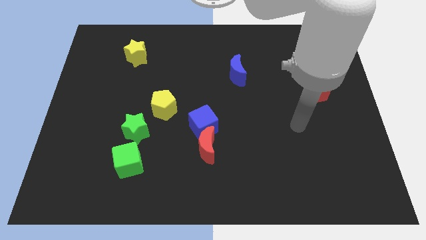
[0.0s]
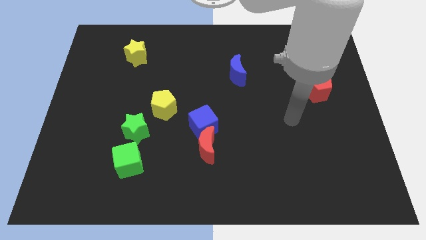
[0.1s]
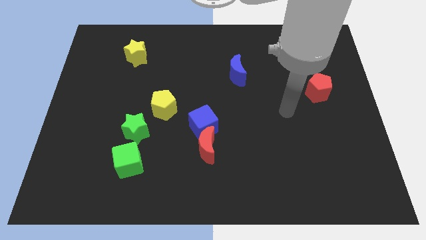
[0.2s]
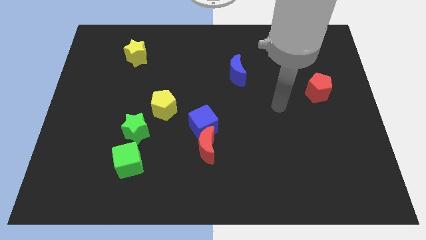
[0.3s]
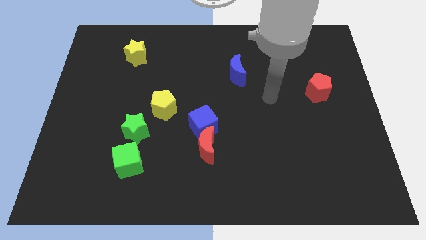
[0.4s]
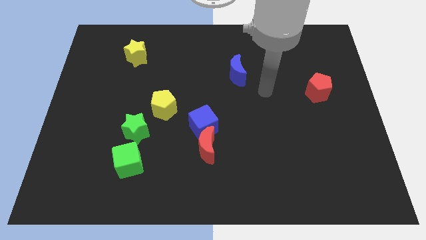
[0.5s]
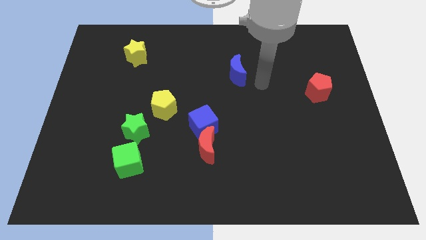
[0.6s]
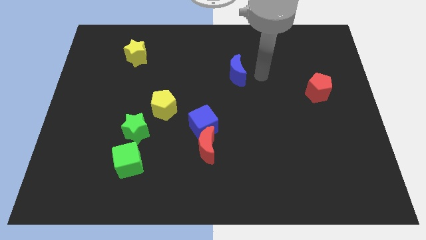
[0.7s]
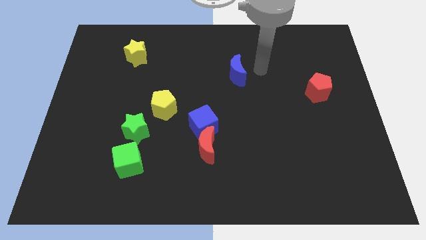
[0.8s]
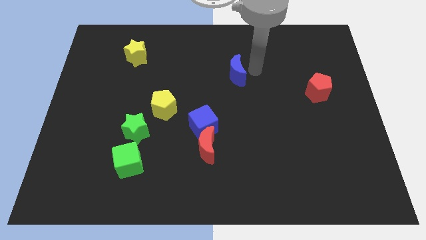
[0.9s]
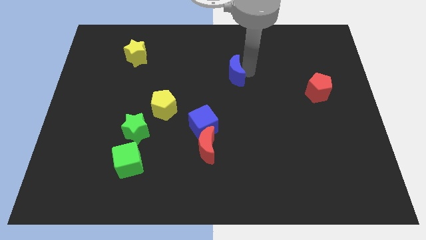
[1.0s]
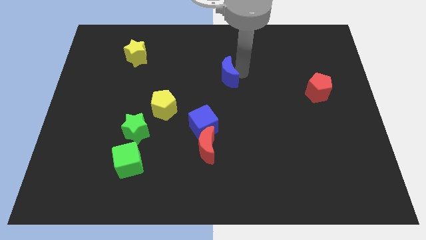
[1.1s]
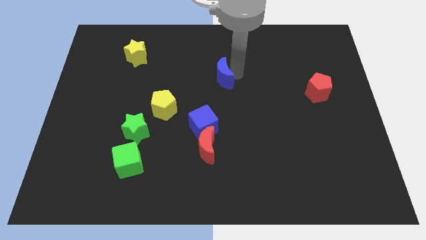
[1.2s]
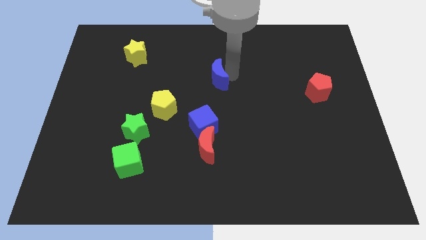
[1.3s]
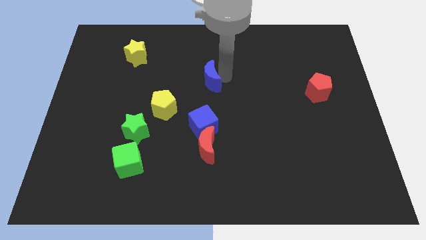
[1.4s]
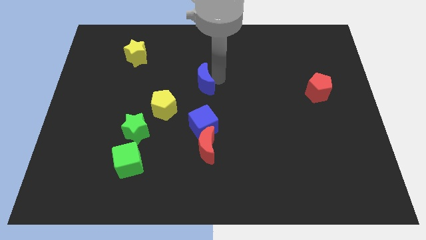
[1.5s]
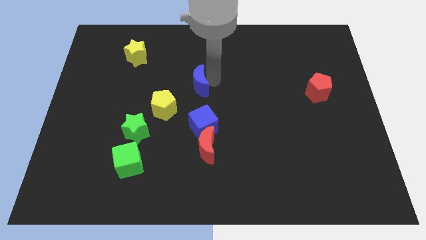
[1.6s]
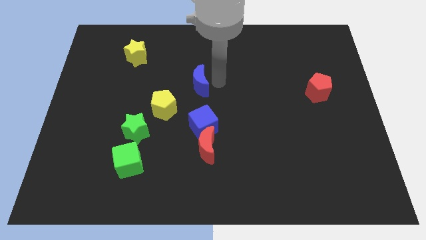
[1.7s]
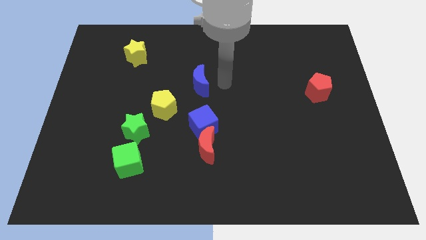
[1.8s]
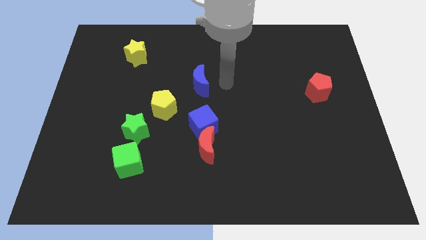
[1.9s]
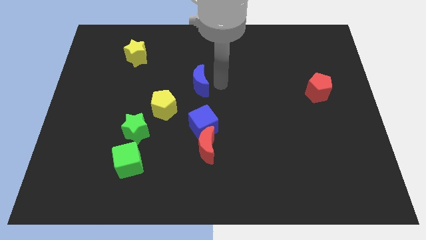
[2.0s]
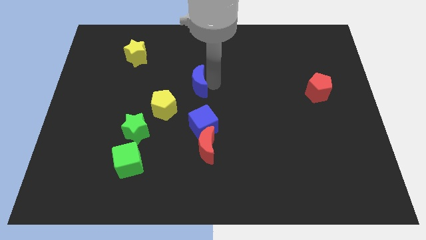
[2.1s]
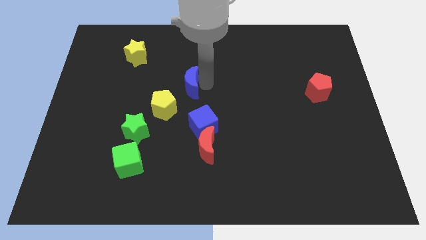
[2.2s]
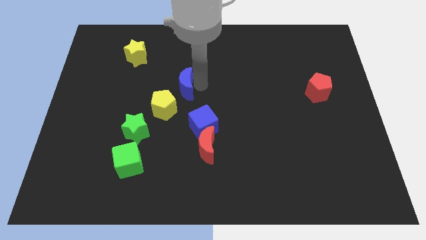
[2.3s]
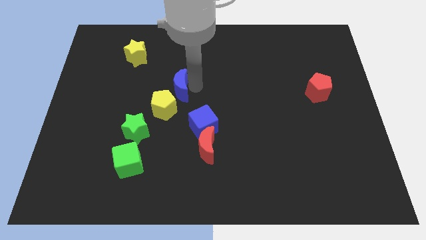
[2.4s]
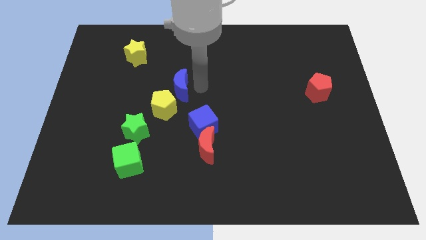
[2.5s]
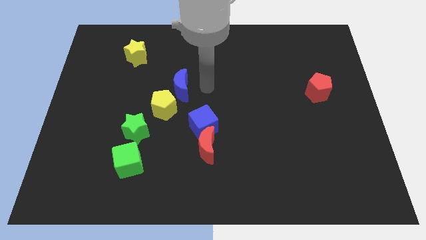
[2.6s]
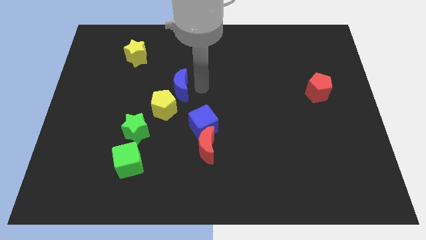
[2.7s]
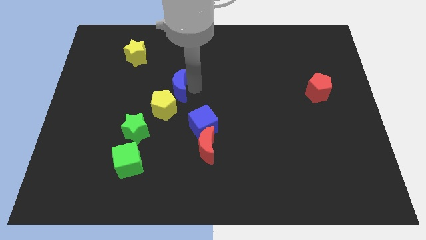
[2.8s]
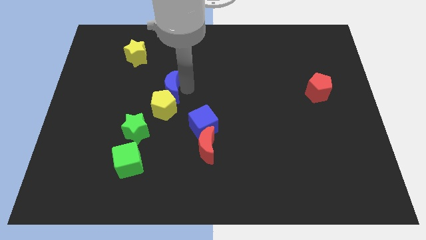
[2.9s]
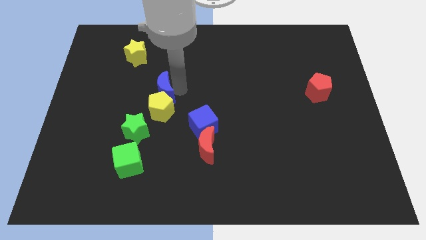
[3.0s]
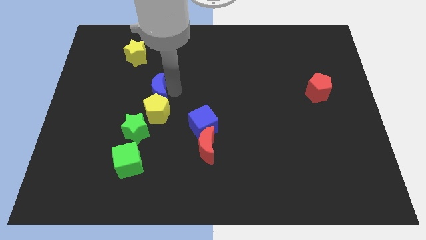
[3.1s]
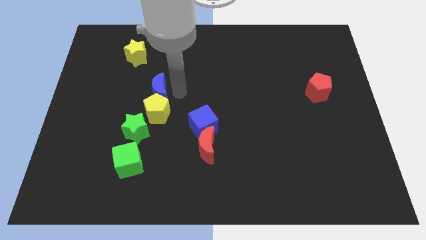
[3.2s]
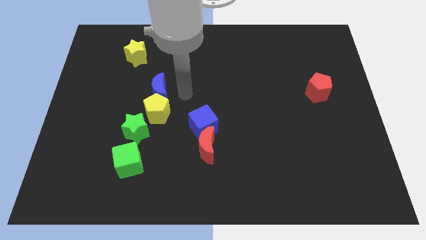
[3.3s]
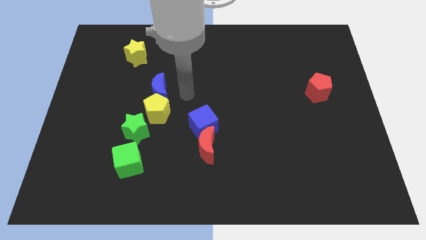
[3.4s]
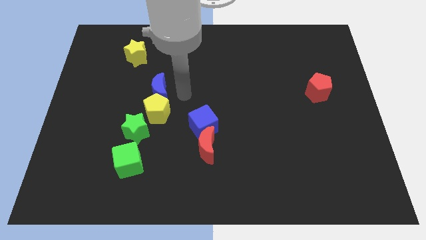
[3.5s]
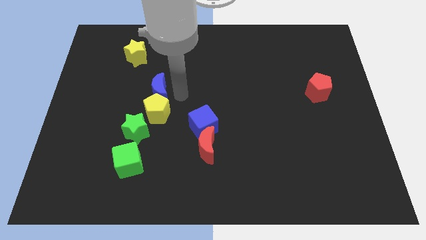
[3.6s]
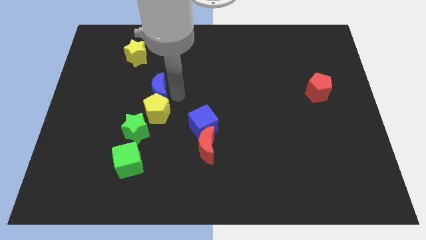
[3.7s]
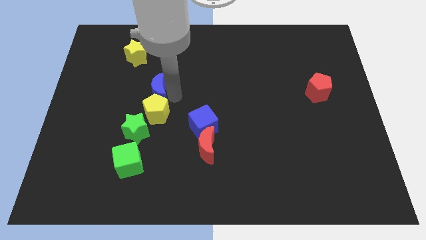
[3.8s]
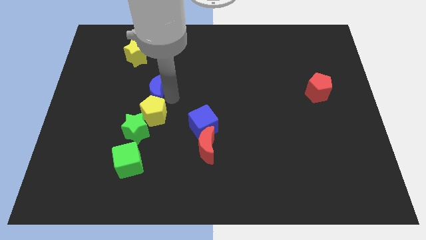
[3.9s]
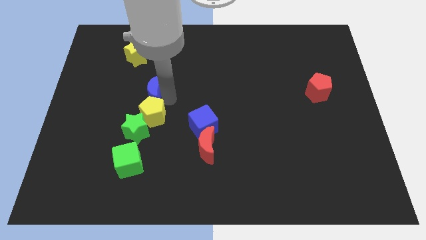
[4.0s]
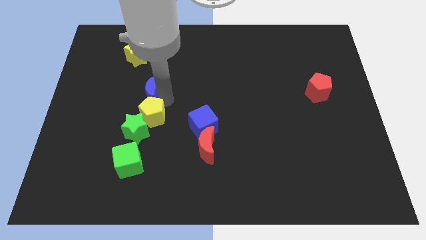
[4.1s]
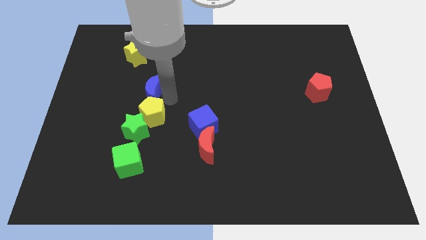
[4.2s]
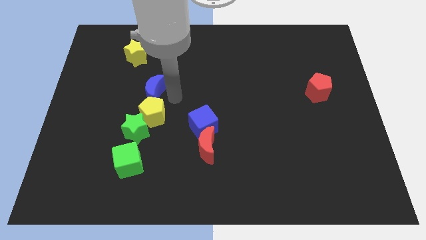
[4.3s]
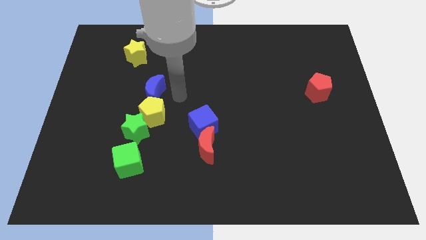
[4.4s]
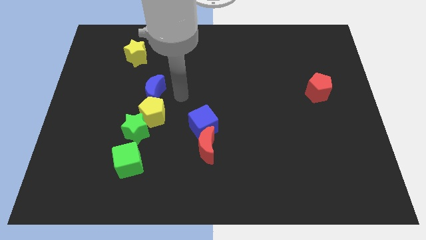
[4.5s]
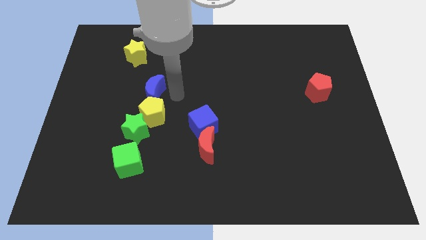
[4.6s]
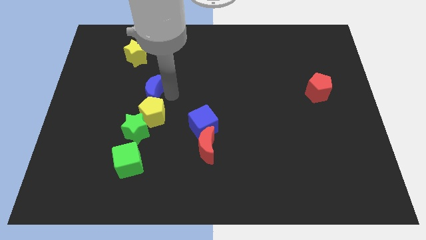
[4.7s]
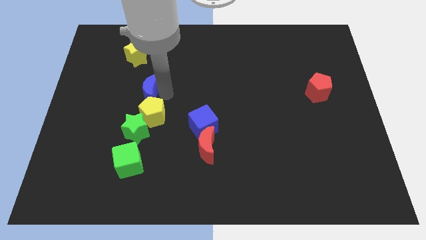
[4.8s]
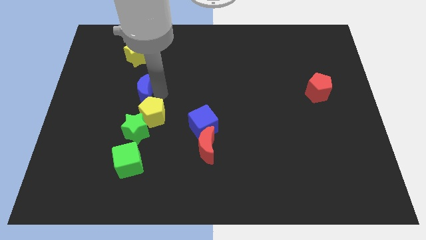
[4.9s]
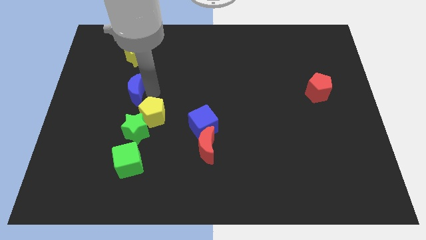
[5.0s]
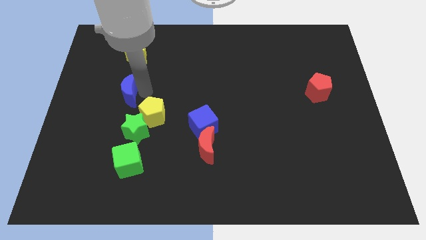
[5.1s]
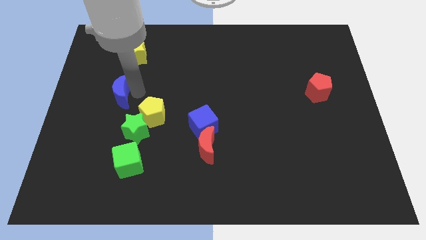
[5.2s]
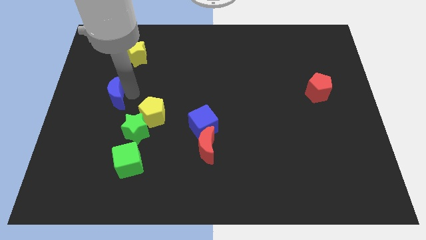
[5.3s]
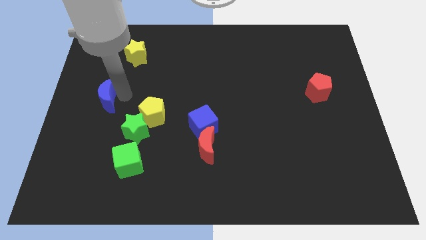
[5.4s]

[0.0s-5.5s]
move the blue moon to the center left

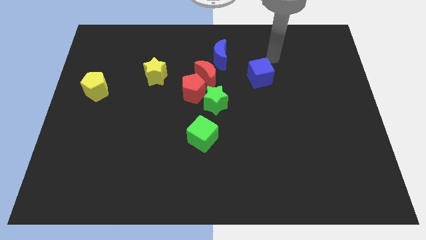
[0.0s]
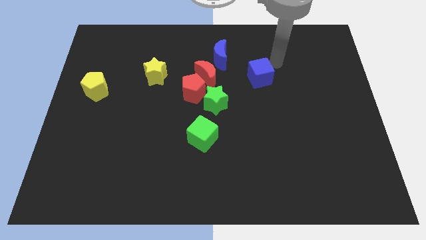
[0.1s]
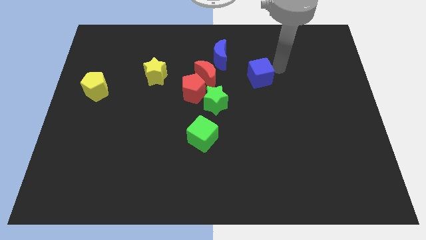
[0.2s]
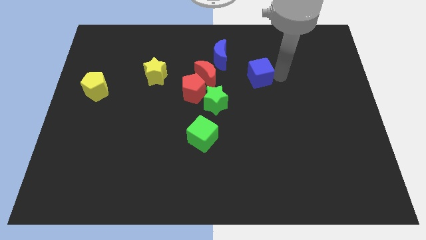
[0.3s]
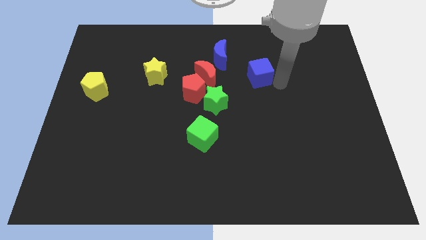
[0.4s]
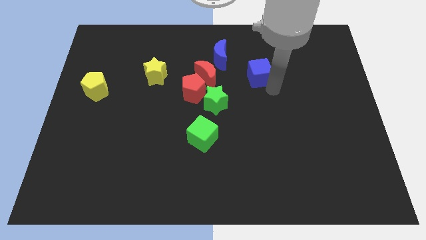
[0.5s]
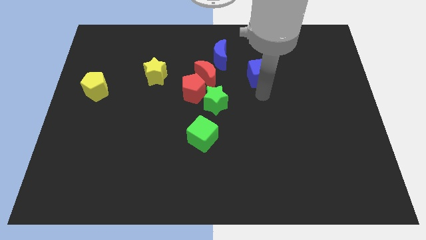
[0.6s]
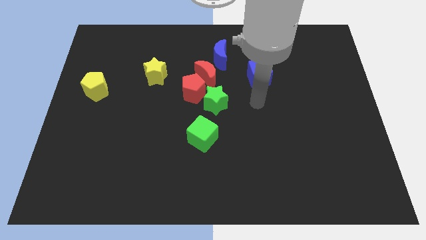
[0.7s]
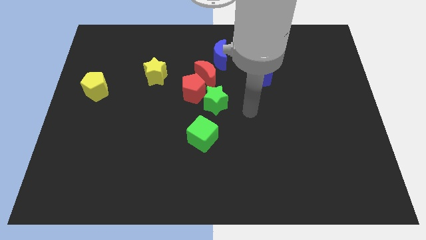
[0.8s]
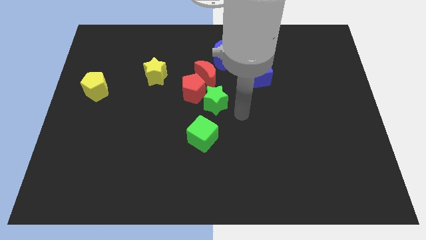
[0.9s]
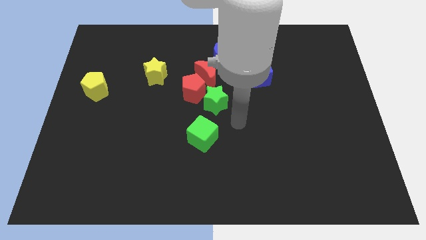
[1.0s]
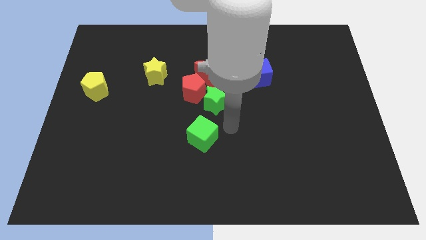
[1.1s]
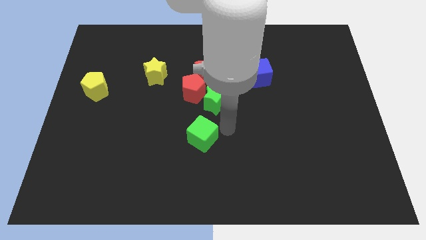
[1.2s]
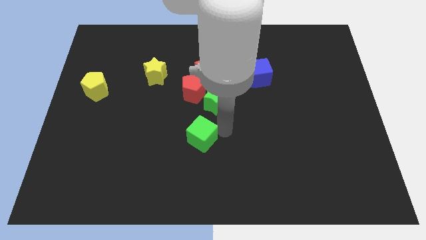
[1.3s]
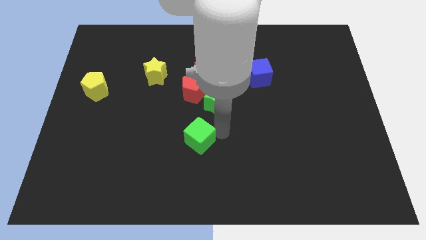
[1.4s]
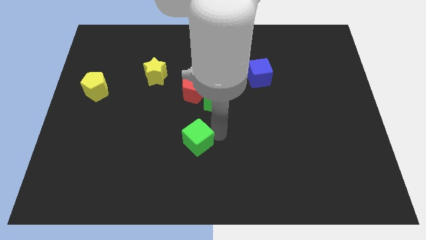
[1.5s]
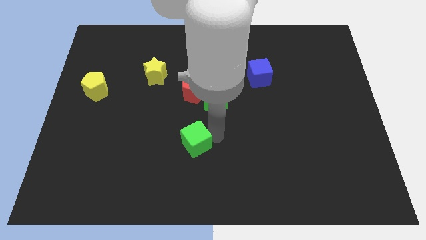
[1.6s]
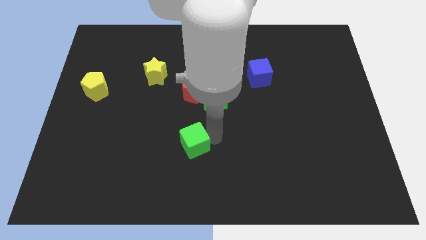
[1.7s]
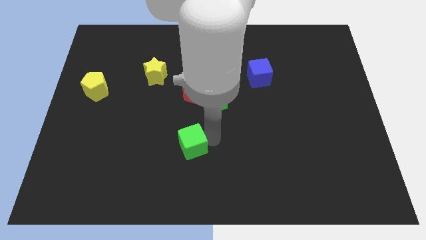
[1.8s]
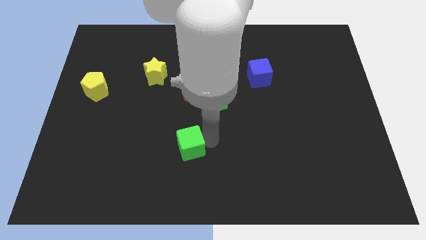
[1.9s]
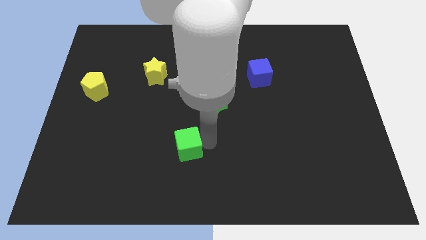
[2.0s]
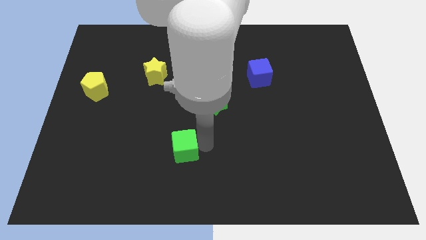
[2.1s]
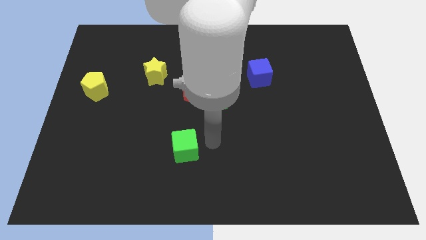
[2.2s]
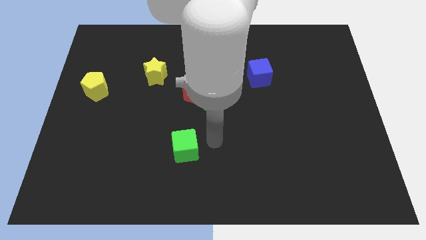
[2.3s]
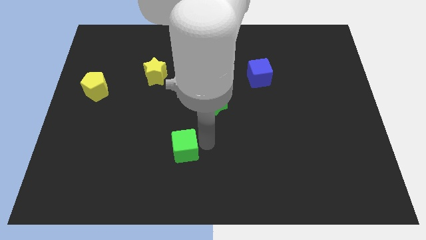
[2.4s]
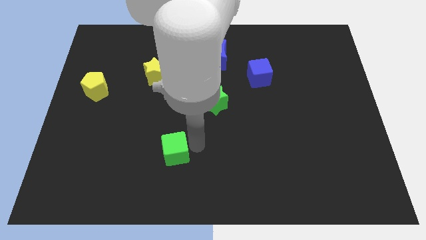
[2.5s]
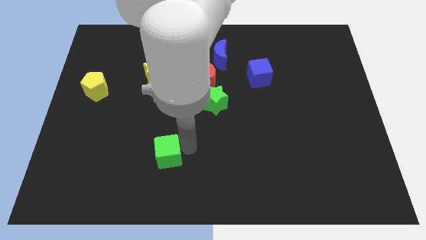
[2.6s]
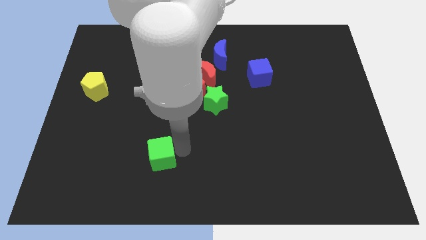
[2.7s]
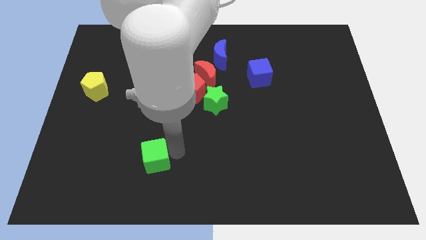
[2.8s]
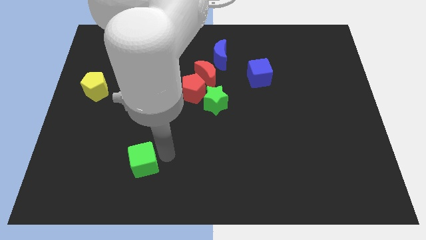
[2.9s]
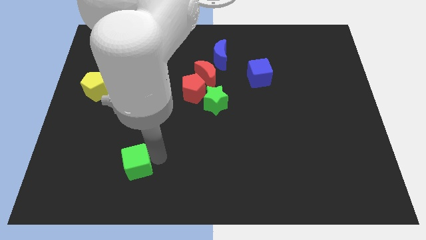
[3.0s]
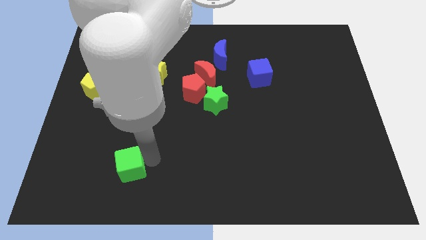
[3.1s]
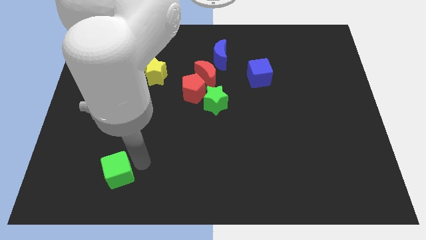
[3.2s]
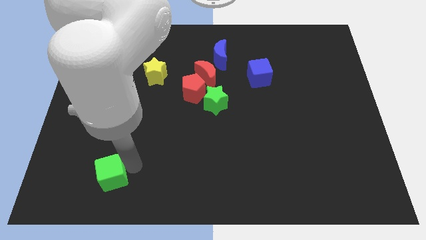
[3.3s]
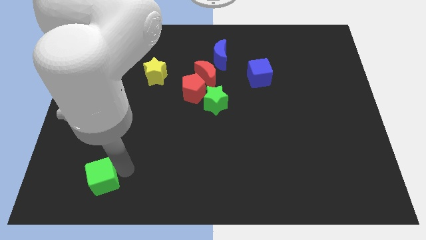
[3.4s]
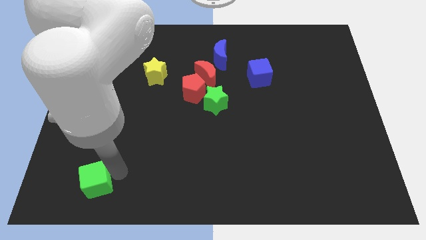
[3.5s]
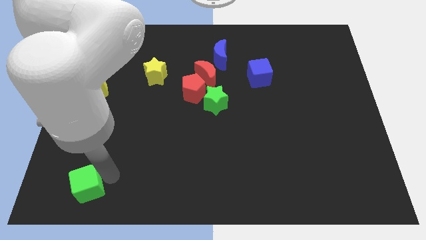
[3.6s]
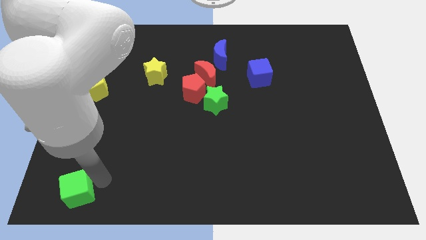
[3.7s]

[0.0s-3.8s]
move the green cube to the bottom left of the board

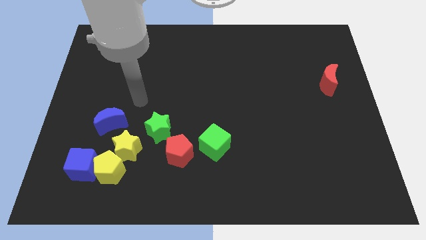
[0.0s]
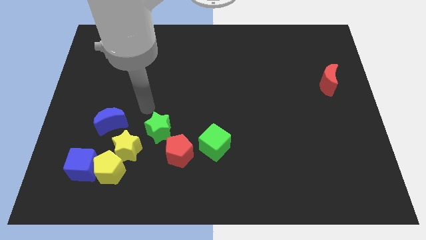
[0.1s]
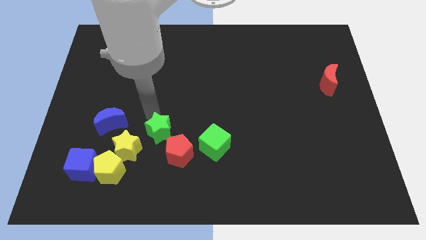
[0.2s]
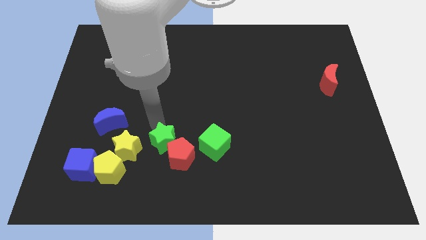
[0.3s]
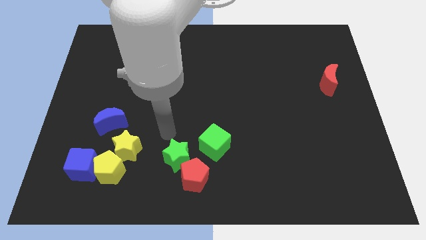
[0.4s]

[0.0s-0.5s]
put the red pentagon to the bottom side
